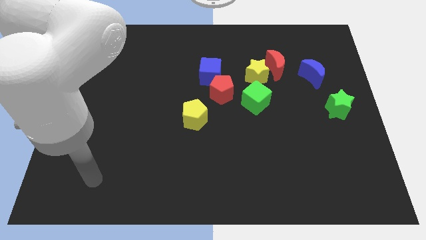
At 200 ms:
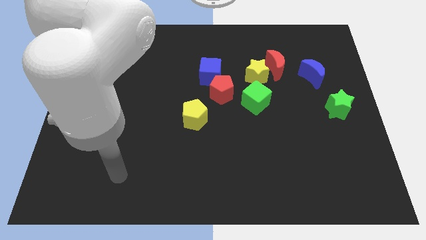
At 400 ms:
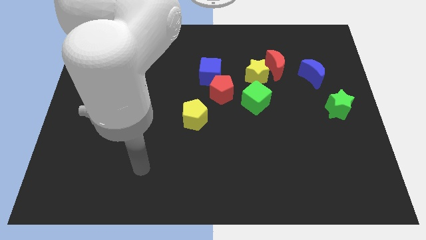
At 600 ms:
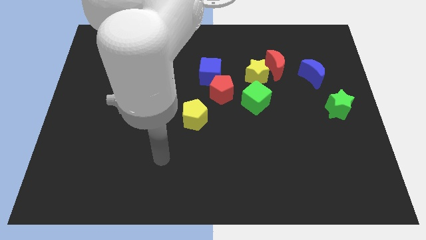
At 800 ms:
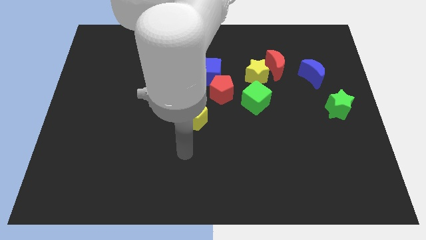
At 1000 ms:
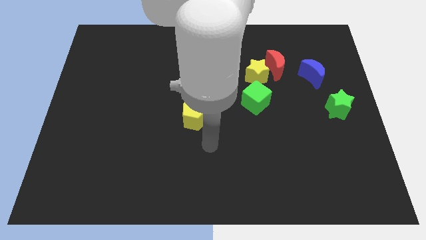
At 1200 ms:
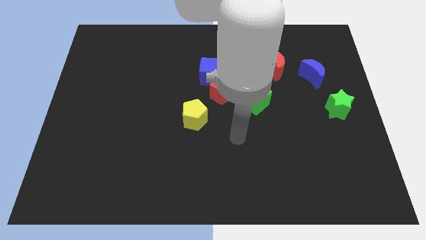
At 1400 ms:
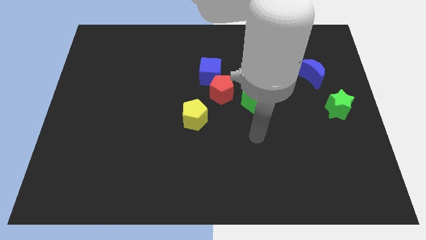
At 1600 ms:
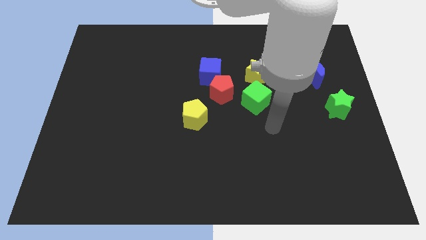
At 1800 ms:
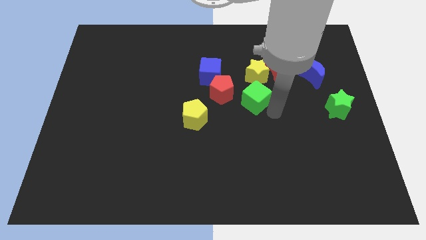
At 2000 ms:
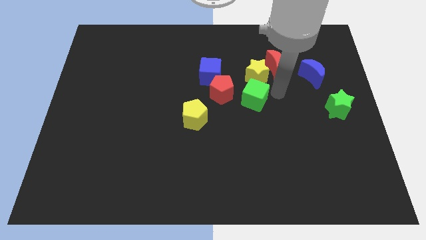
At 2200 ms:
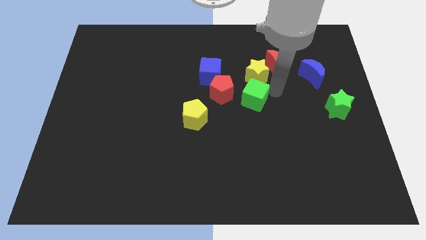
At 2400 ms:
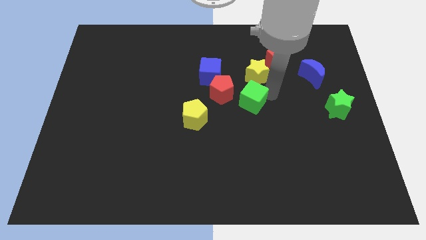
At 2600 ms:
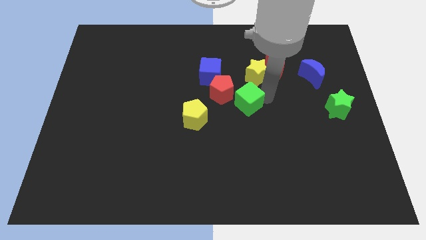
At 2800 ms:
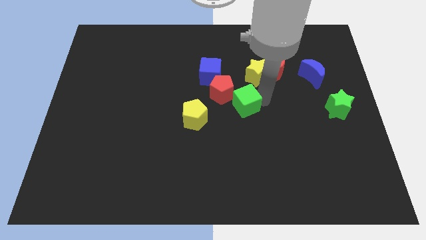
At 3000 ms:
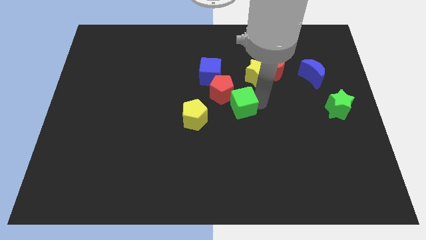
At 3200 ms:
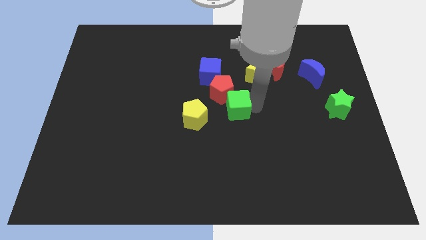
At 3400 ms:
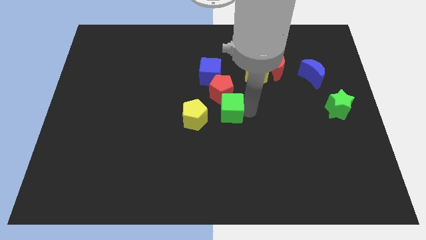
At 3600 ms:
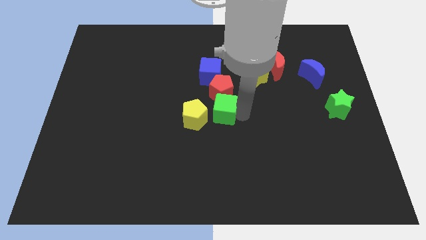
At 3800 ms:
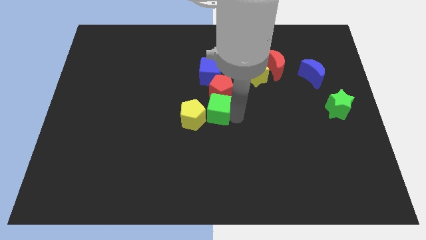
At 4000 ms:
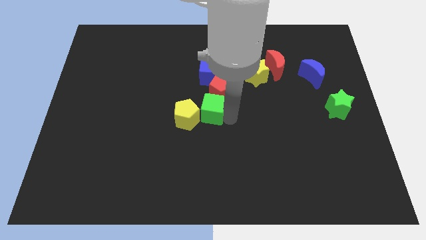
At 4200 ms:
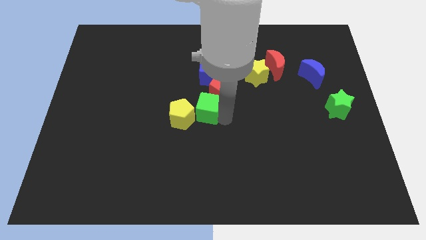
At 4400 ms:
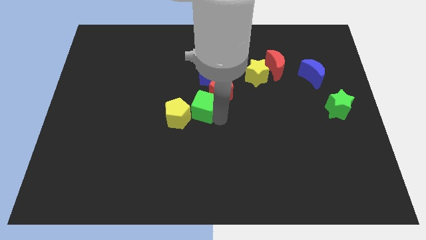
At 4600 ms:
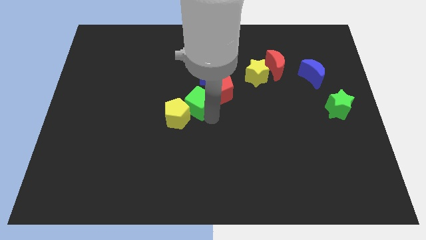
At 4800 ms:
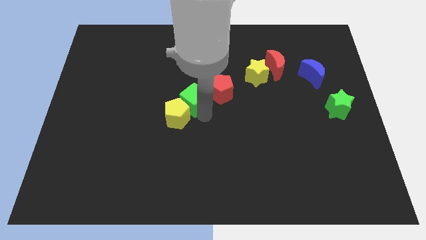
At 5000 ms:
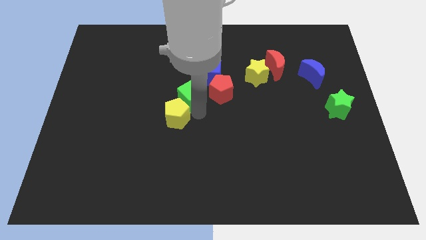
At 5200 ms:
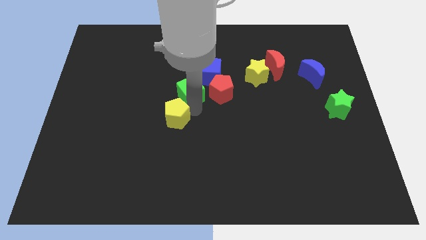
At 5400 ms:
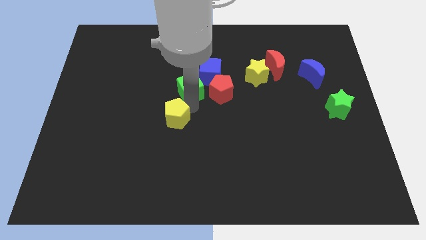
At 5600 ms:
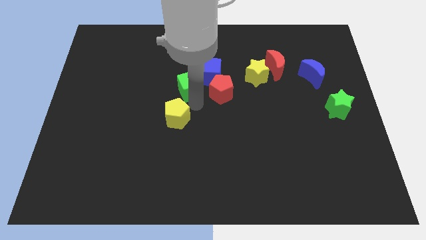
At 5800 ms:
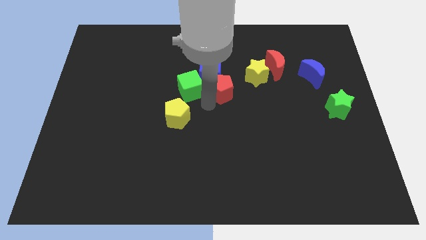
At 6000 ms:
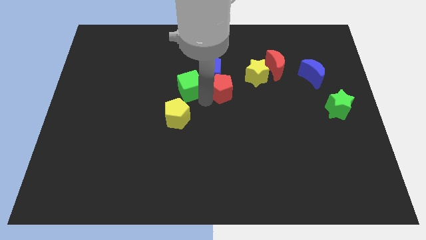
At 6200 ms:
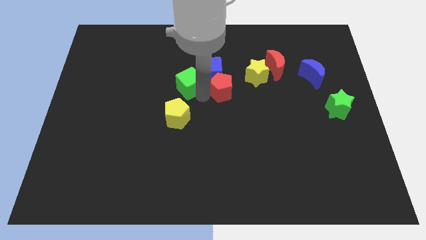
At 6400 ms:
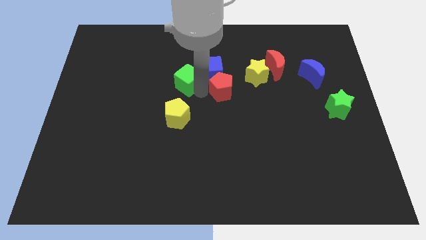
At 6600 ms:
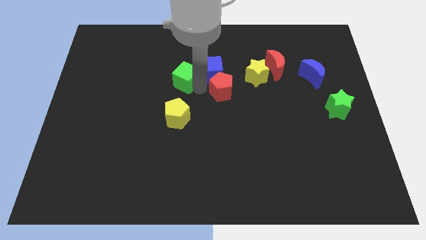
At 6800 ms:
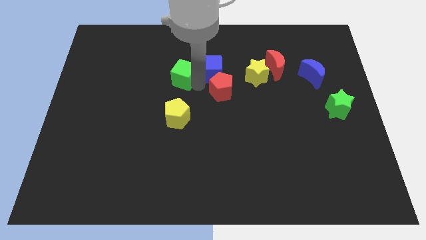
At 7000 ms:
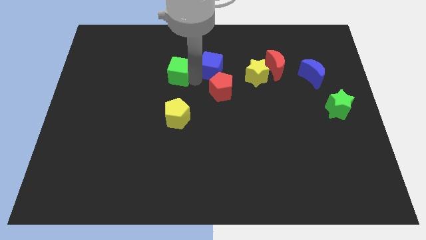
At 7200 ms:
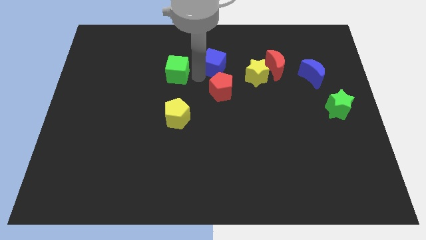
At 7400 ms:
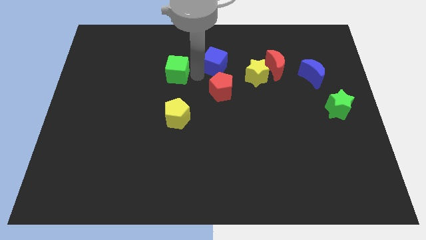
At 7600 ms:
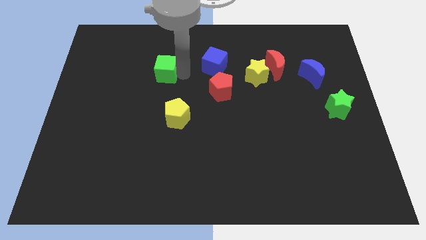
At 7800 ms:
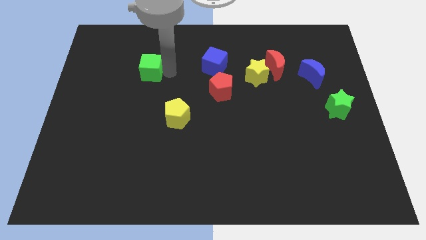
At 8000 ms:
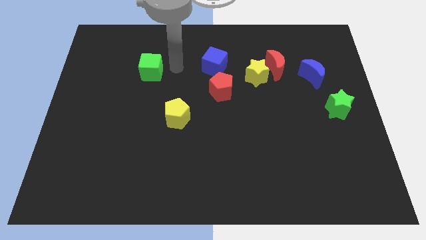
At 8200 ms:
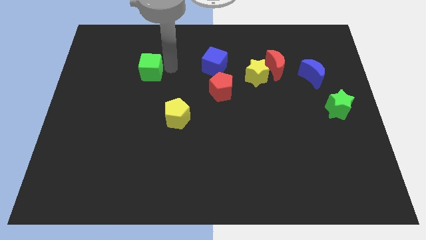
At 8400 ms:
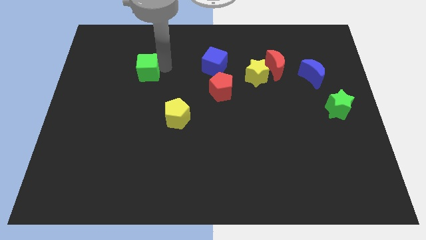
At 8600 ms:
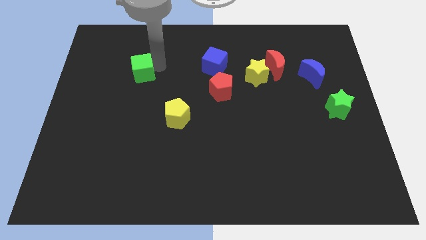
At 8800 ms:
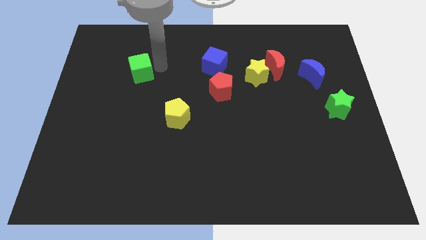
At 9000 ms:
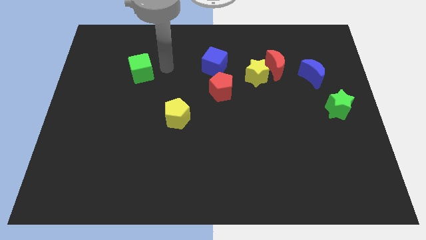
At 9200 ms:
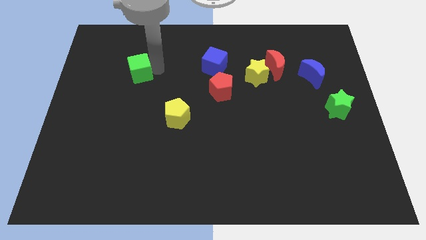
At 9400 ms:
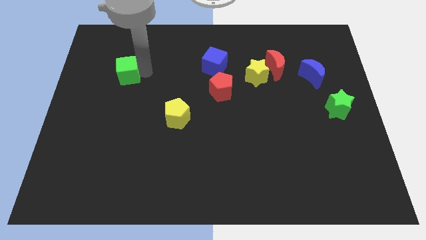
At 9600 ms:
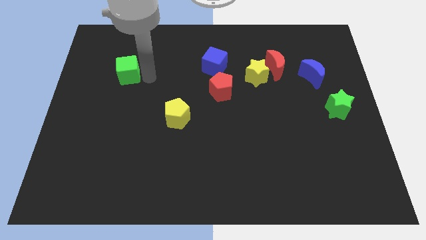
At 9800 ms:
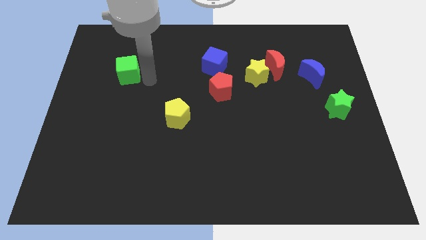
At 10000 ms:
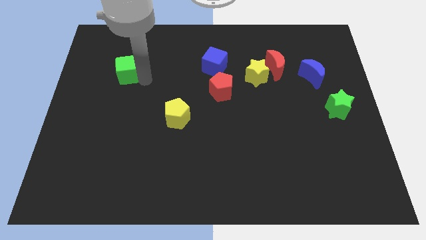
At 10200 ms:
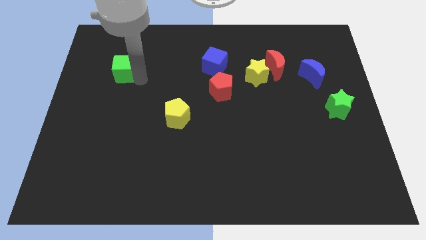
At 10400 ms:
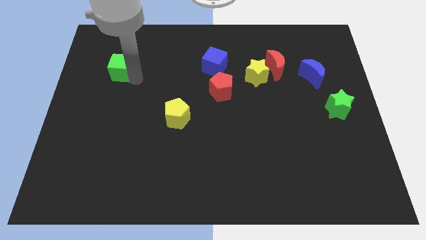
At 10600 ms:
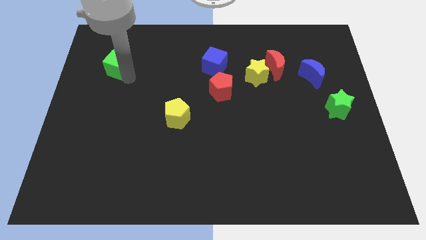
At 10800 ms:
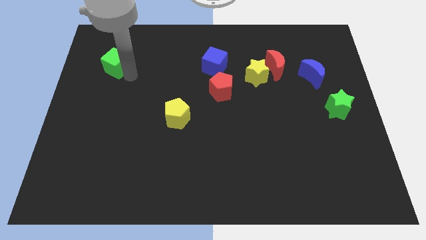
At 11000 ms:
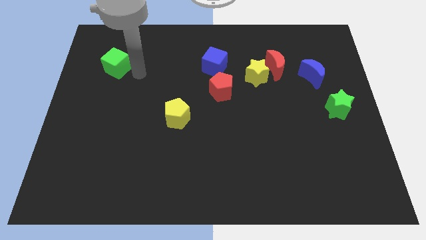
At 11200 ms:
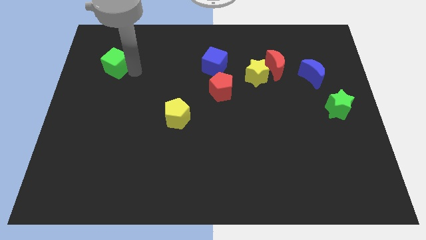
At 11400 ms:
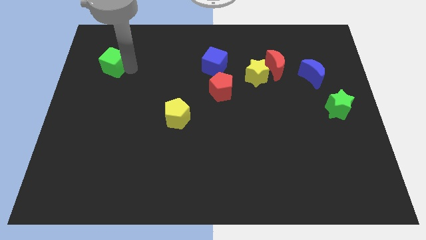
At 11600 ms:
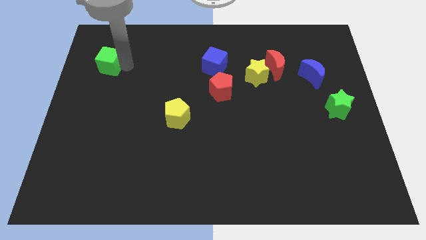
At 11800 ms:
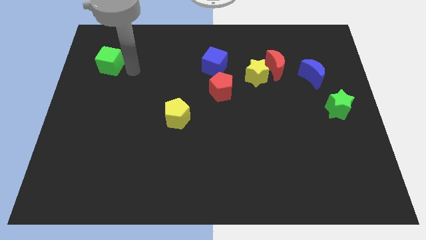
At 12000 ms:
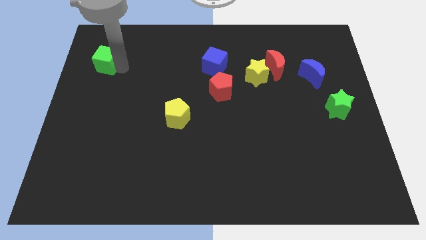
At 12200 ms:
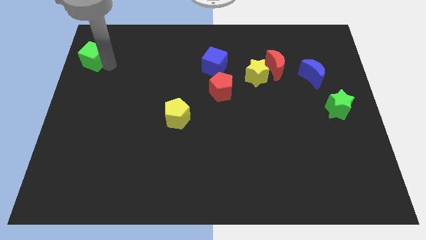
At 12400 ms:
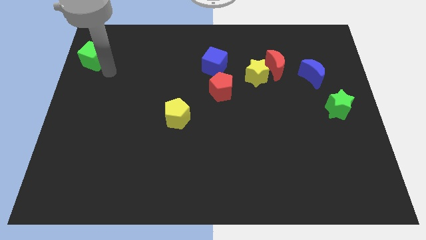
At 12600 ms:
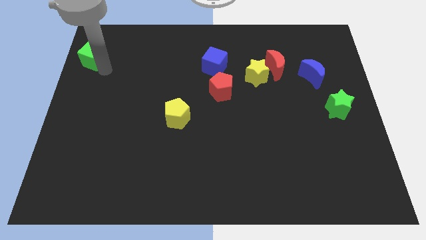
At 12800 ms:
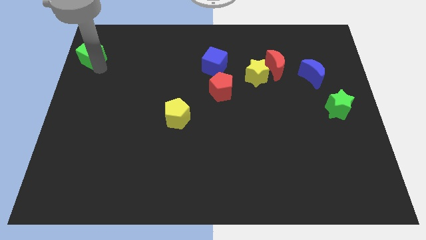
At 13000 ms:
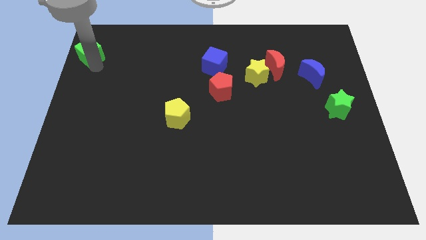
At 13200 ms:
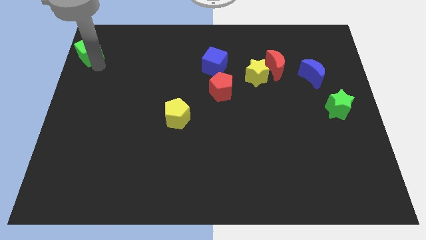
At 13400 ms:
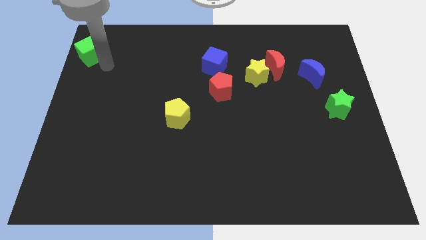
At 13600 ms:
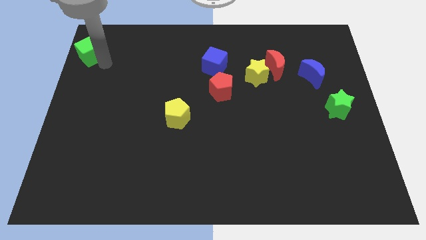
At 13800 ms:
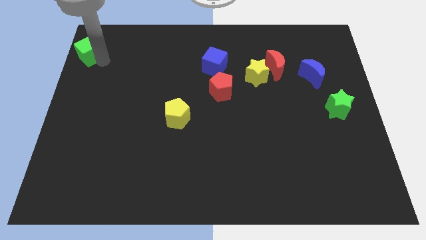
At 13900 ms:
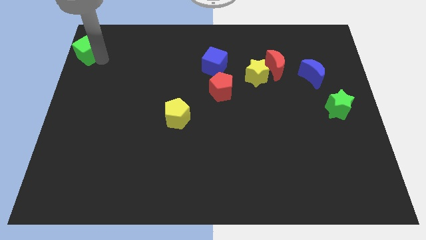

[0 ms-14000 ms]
put the green cube to the top left corner
